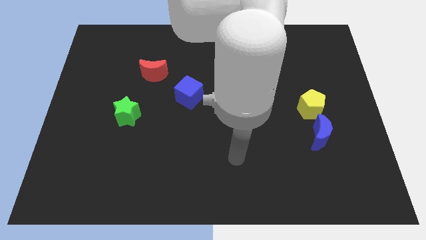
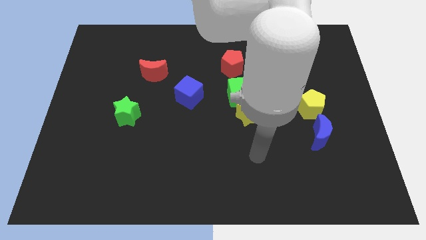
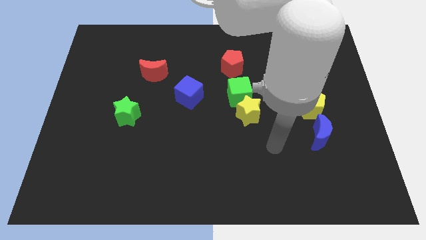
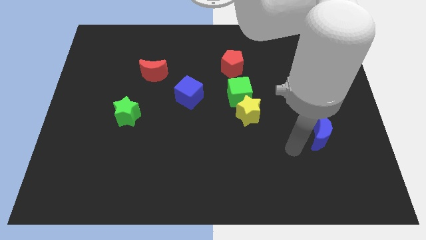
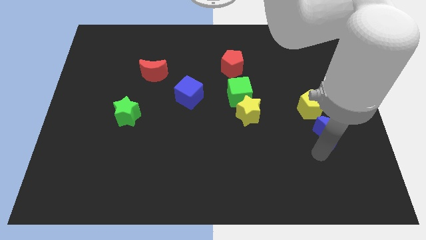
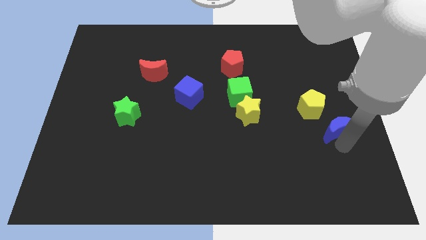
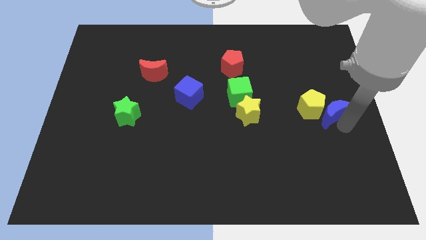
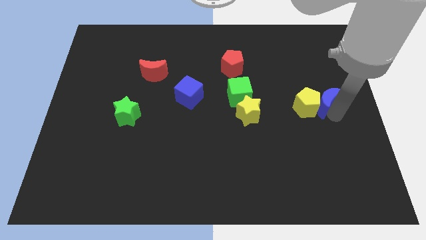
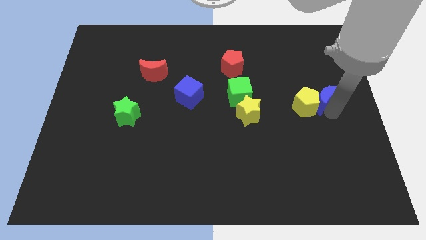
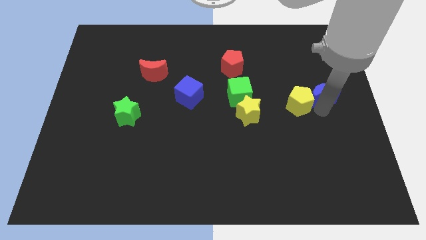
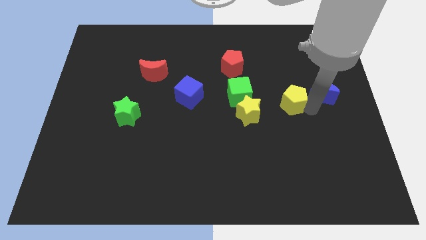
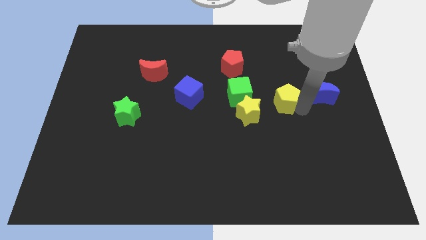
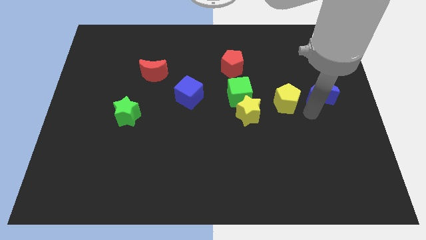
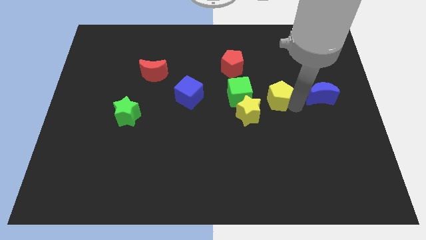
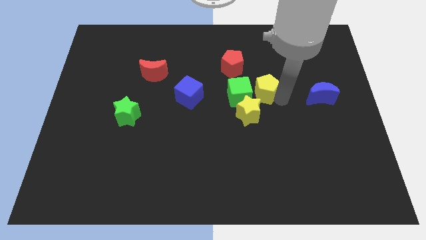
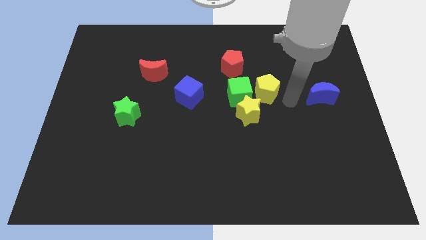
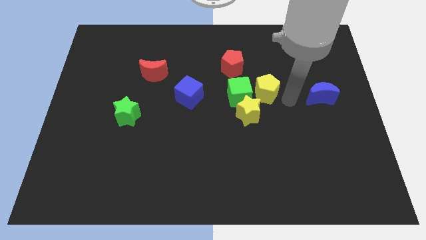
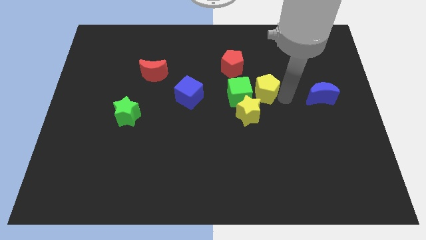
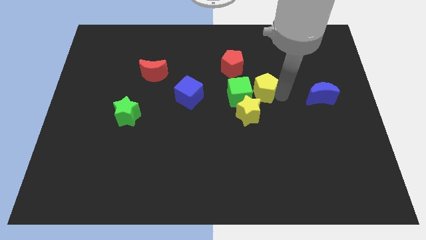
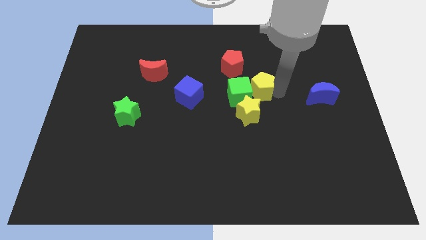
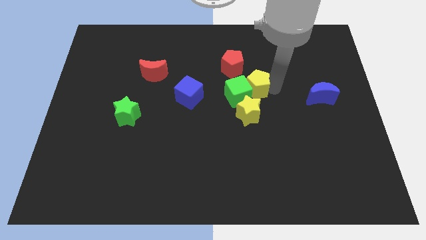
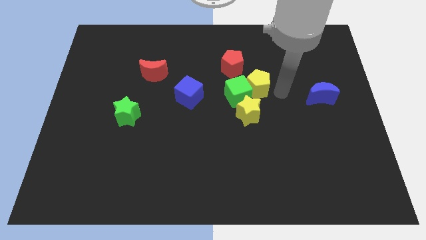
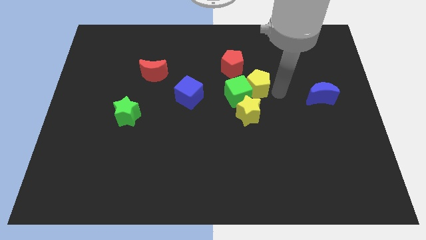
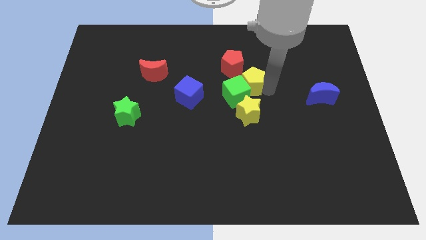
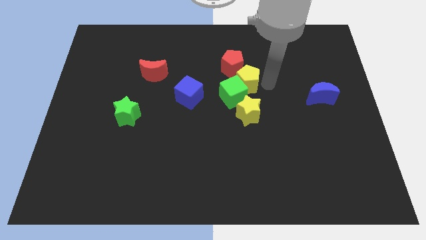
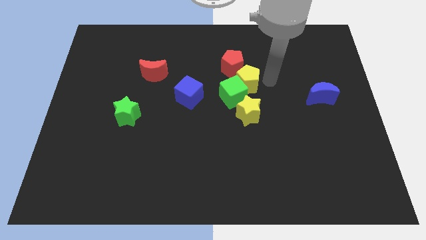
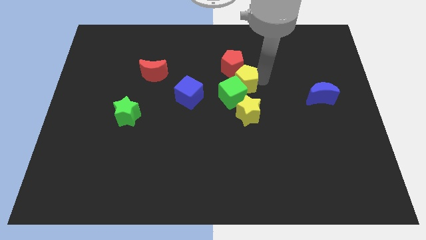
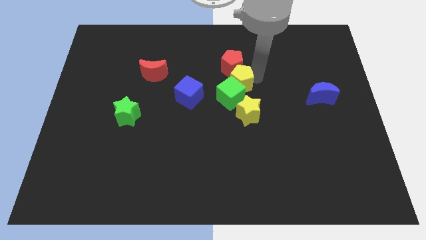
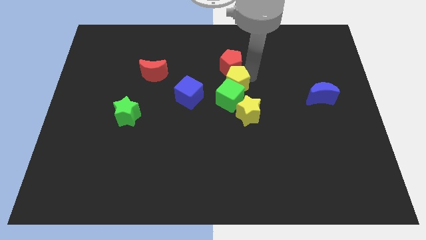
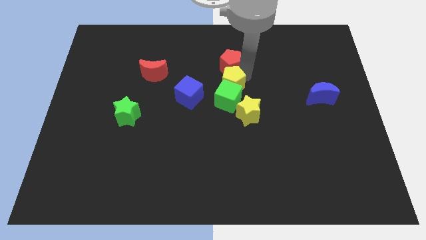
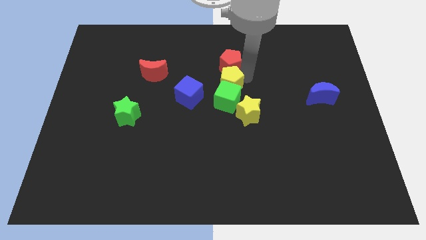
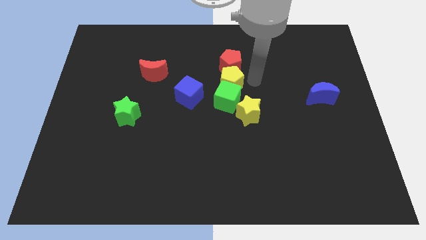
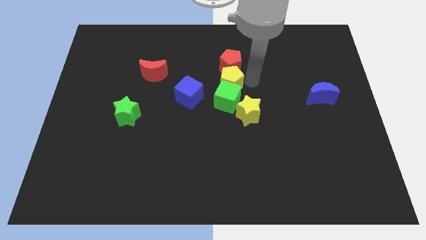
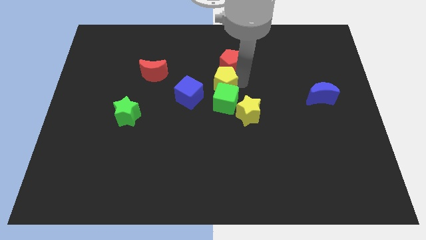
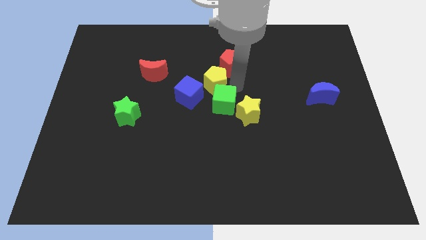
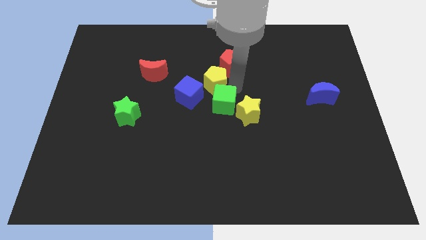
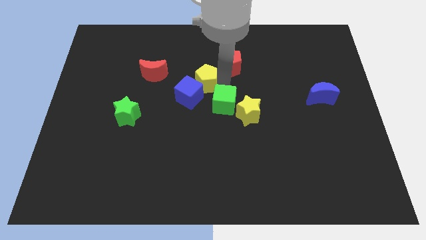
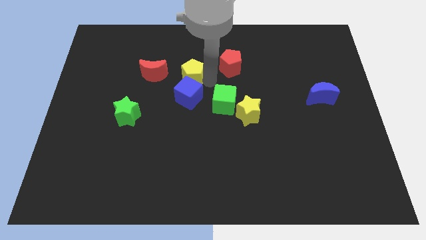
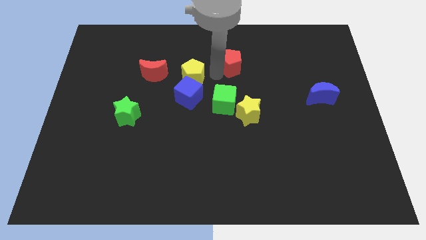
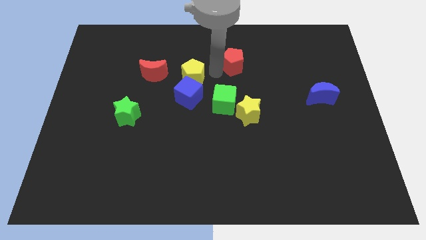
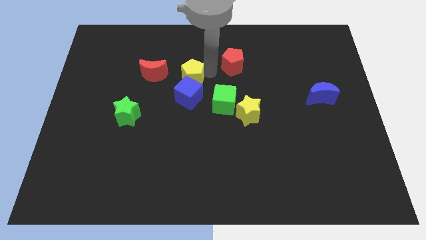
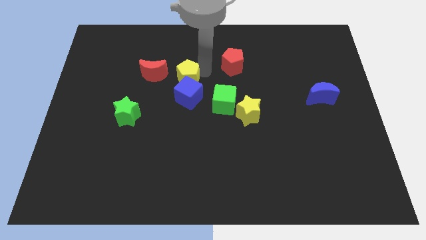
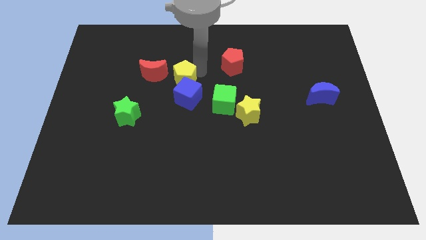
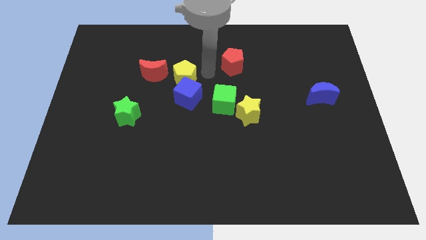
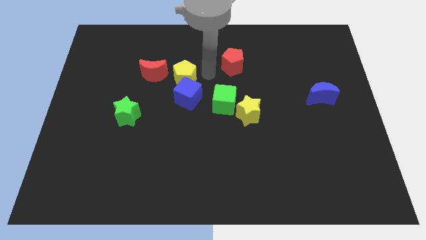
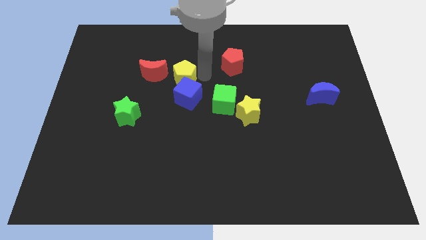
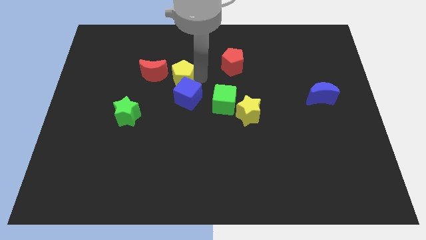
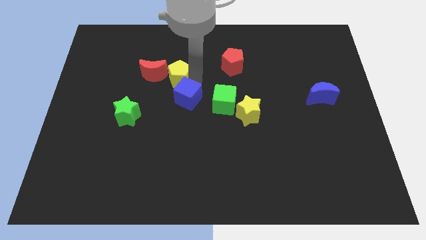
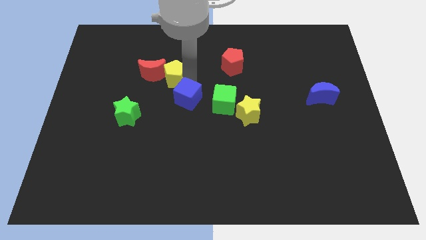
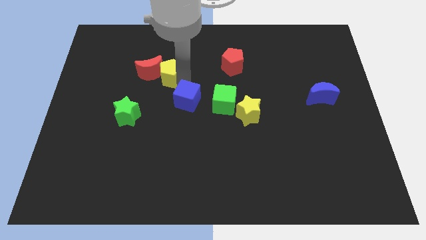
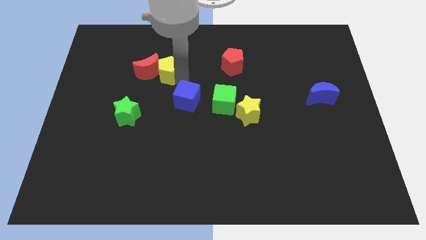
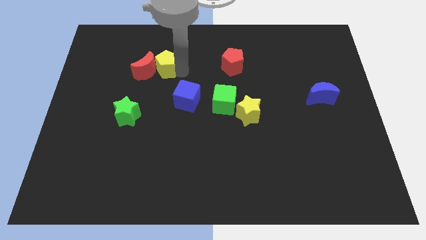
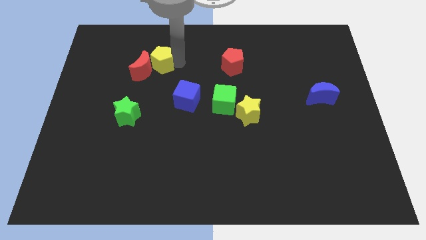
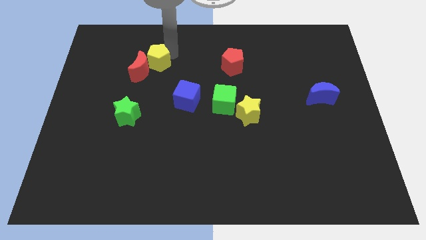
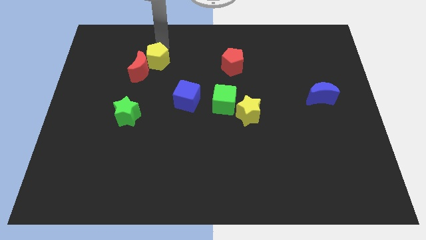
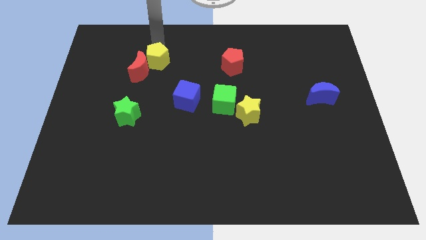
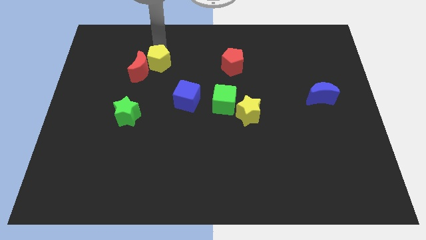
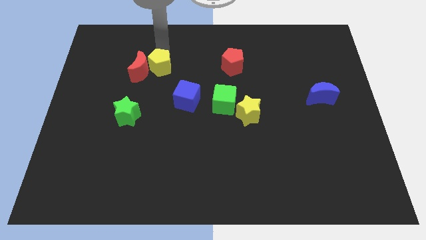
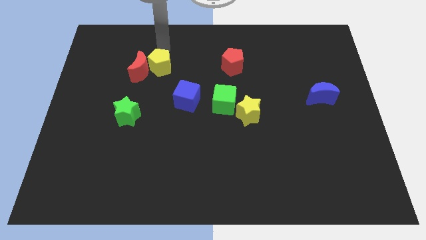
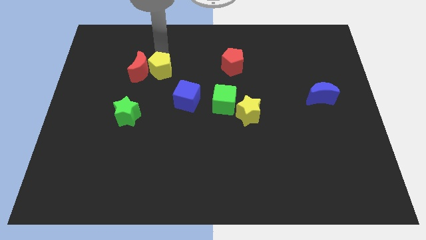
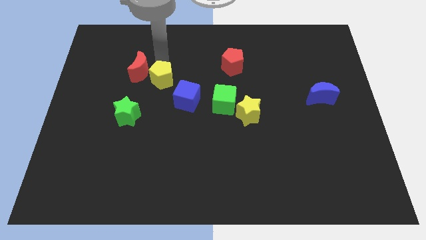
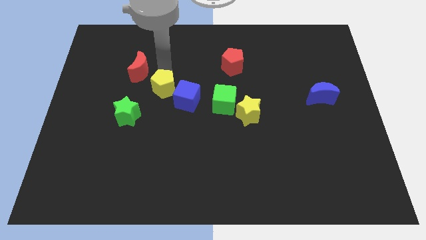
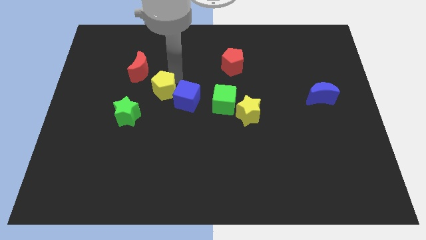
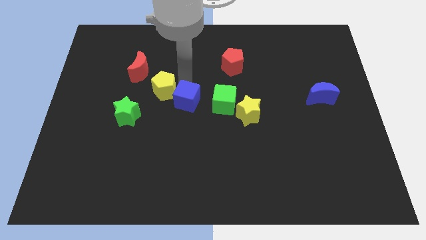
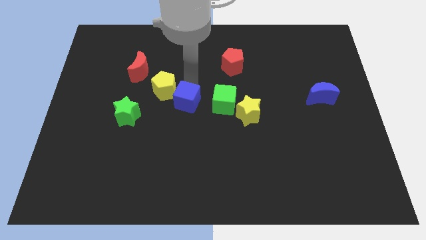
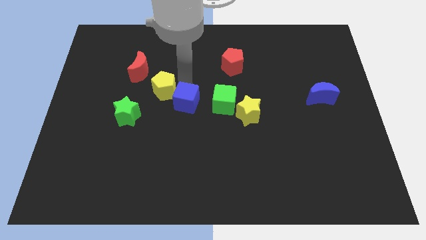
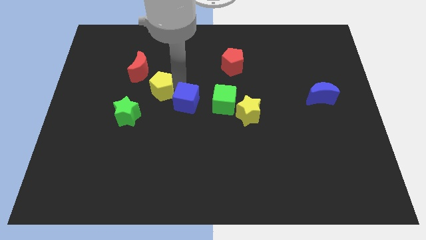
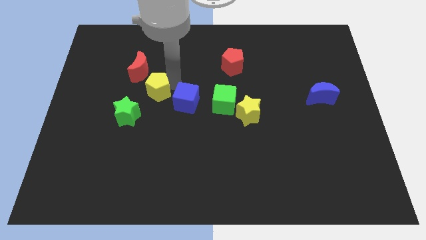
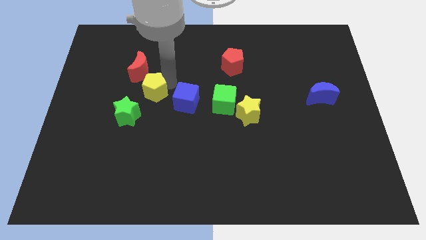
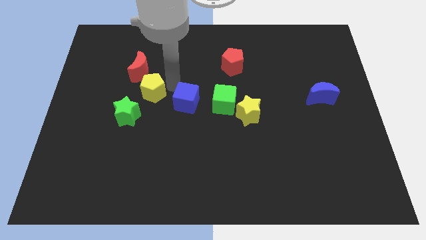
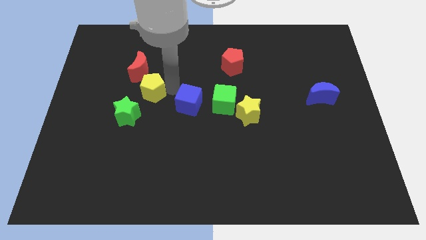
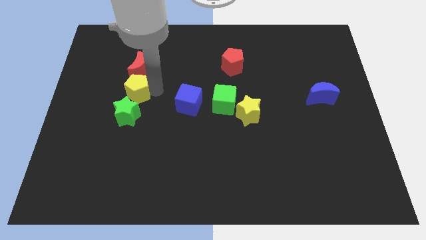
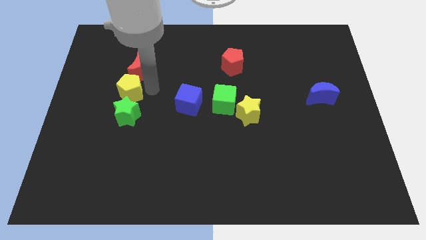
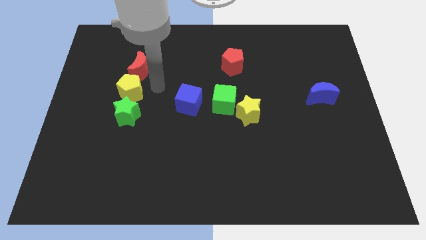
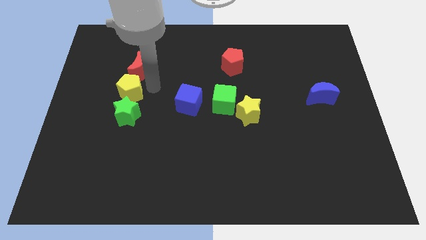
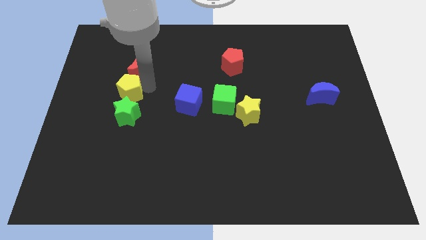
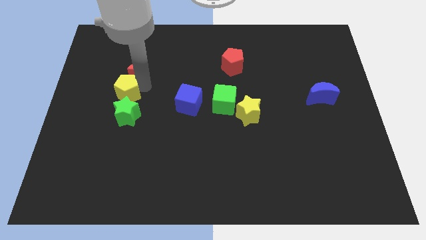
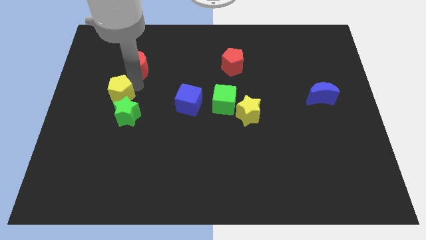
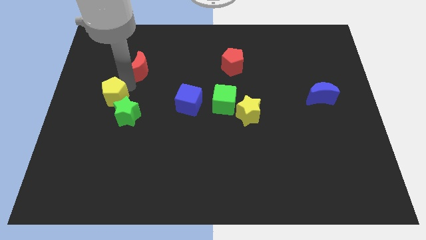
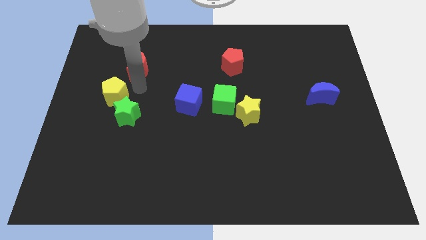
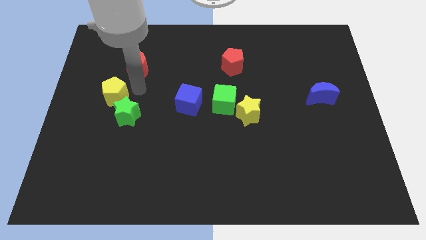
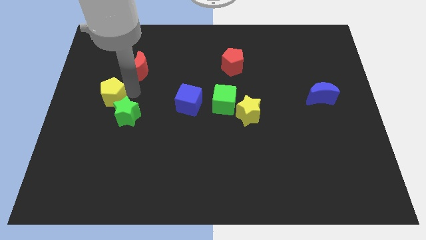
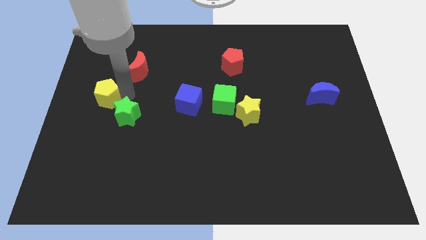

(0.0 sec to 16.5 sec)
move the yellow pentagon to the center left
